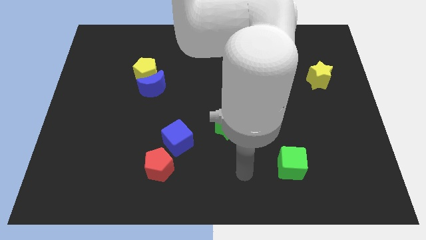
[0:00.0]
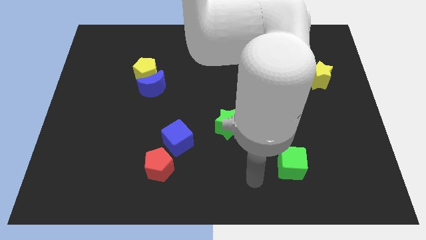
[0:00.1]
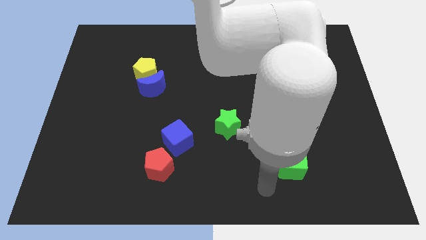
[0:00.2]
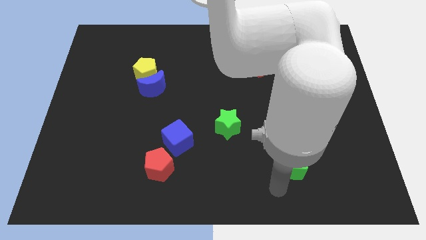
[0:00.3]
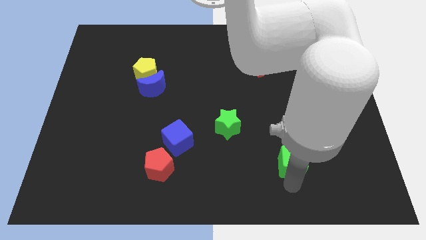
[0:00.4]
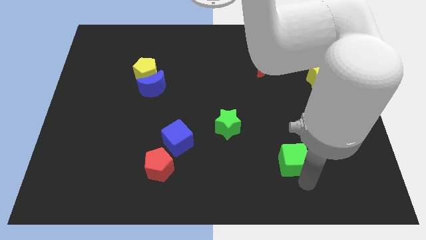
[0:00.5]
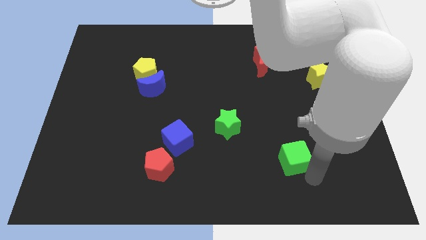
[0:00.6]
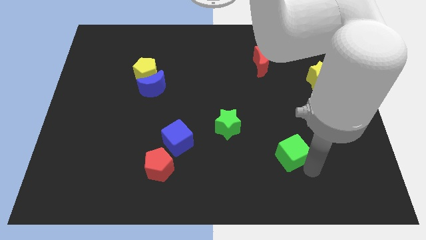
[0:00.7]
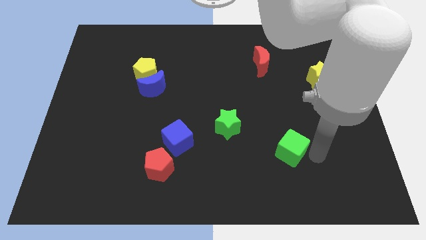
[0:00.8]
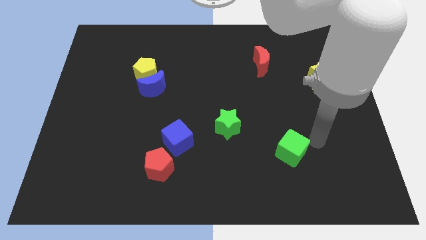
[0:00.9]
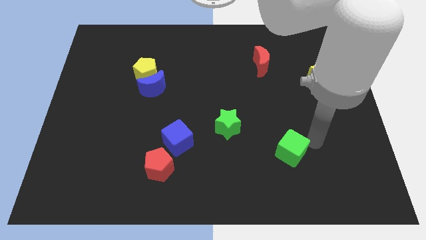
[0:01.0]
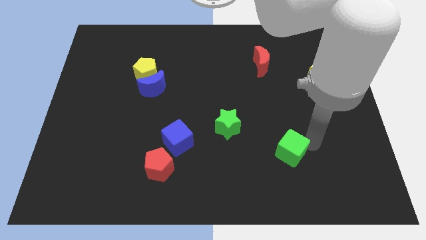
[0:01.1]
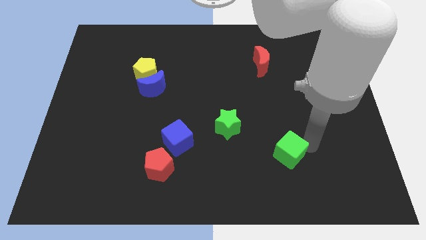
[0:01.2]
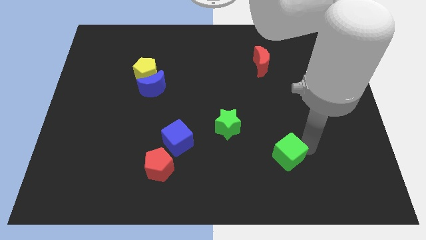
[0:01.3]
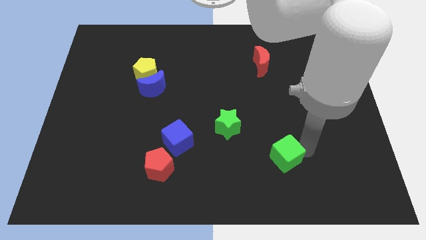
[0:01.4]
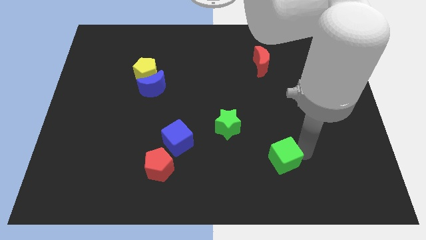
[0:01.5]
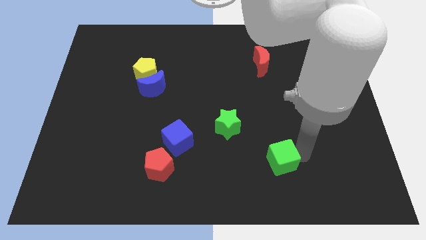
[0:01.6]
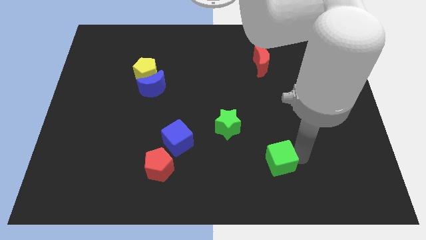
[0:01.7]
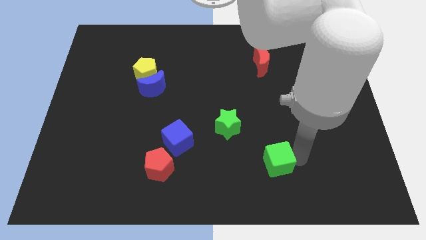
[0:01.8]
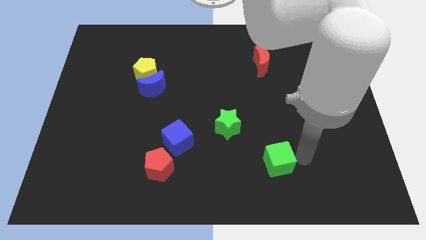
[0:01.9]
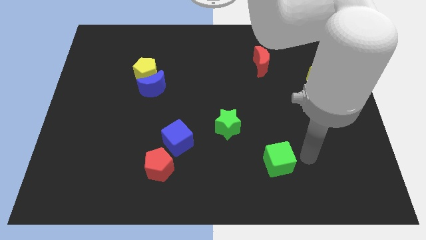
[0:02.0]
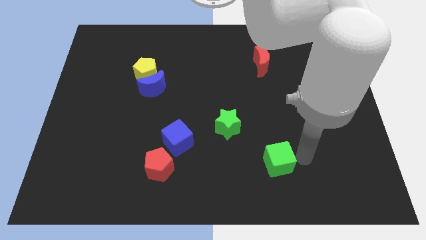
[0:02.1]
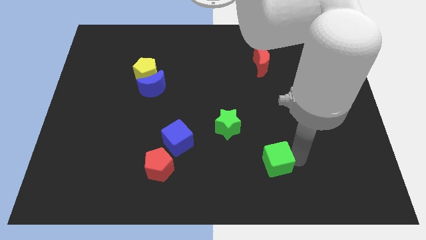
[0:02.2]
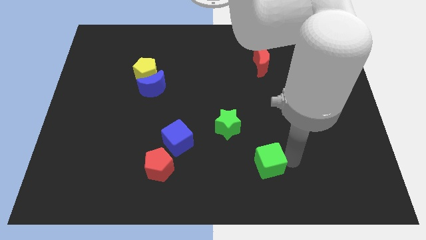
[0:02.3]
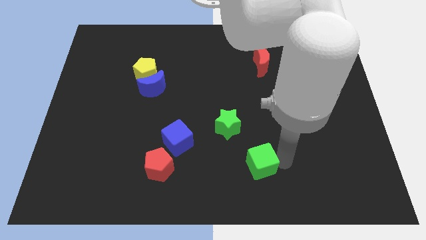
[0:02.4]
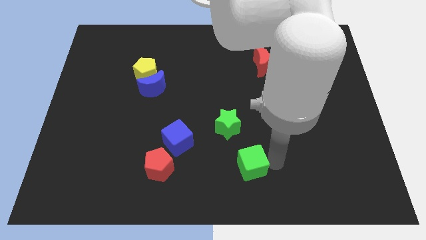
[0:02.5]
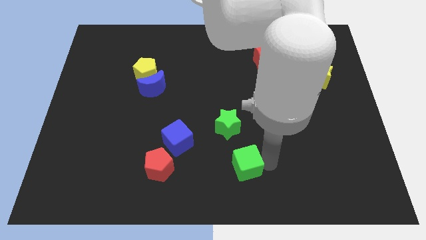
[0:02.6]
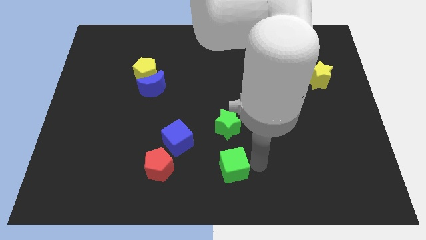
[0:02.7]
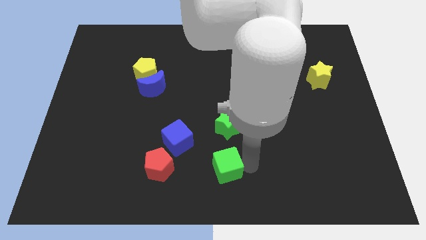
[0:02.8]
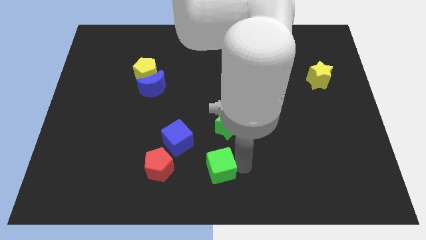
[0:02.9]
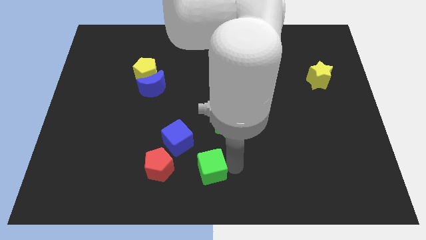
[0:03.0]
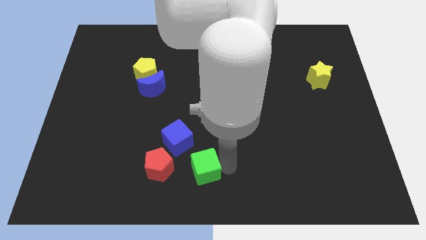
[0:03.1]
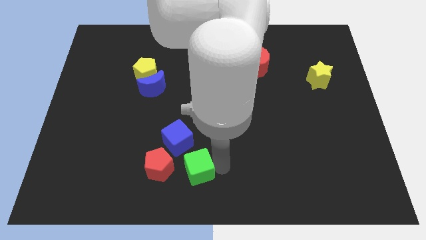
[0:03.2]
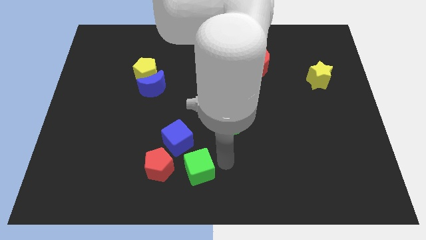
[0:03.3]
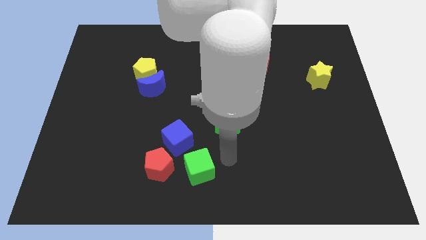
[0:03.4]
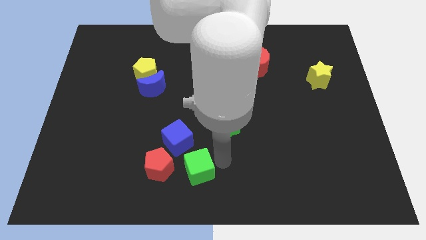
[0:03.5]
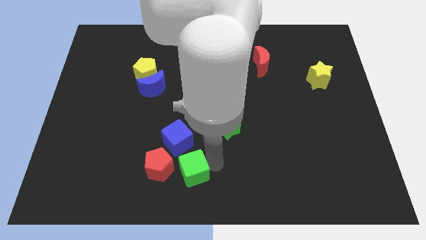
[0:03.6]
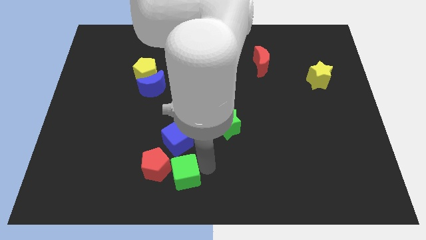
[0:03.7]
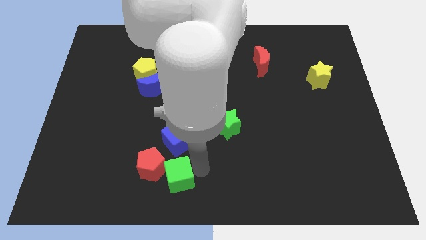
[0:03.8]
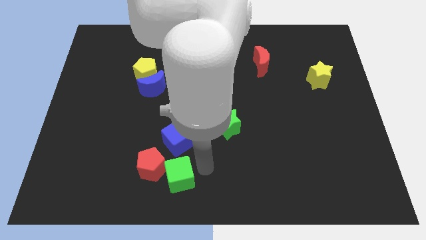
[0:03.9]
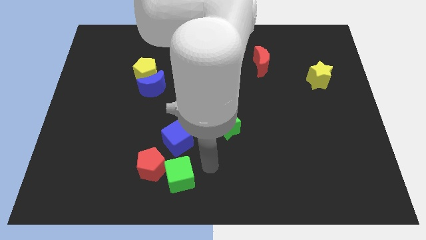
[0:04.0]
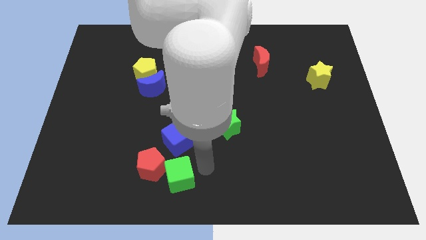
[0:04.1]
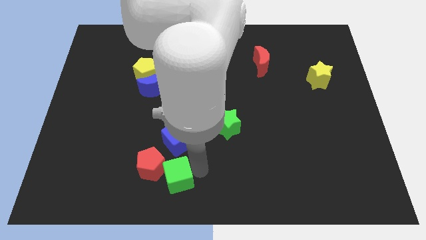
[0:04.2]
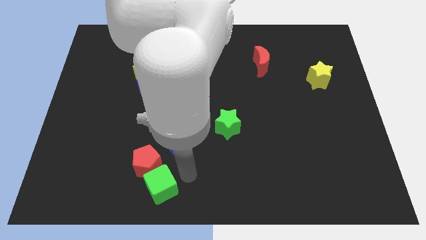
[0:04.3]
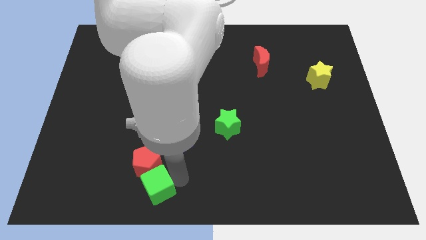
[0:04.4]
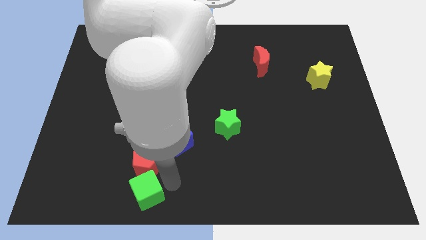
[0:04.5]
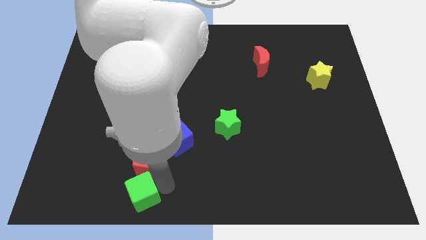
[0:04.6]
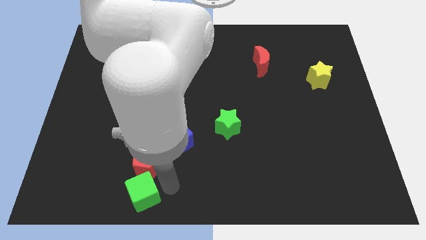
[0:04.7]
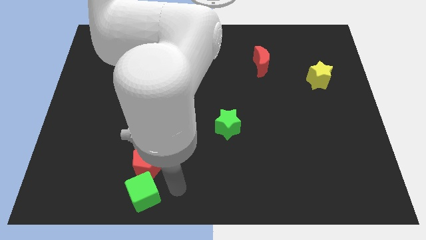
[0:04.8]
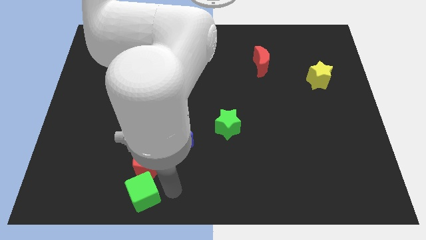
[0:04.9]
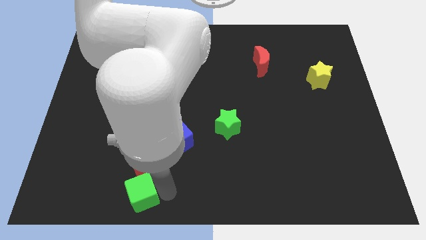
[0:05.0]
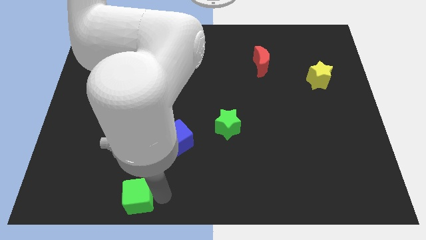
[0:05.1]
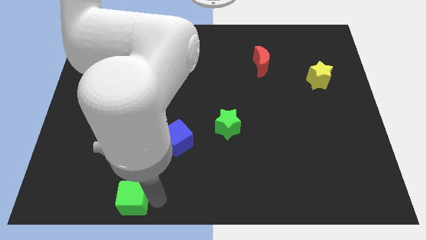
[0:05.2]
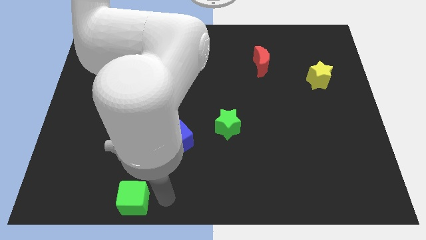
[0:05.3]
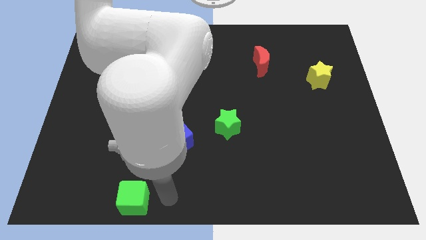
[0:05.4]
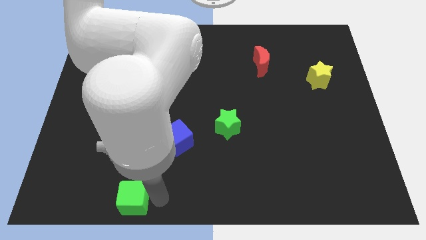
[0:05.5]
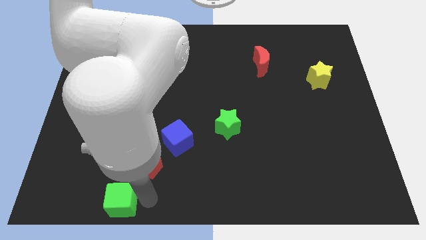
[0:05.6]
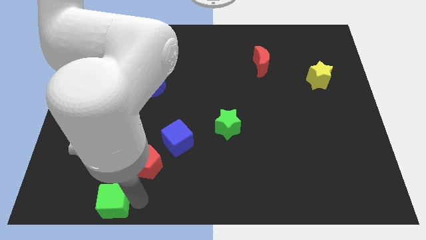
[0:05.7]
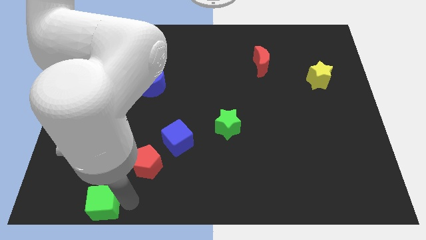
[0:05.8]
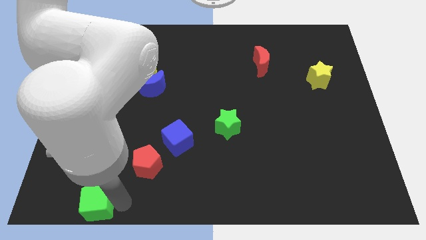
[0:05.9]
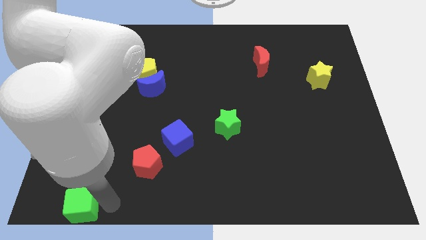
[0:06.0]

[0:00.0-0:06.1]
move the green cube to the bottom left corner
